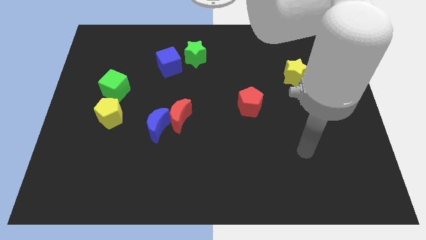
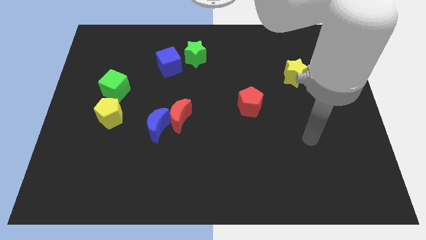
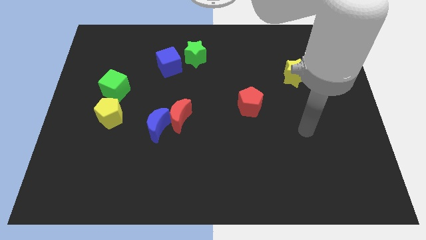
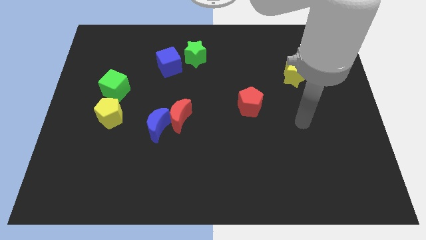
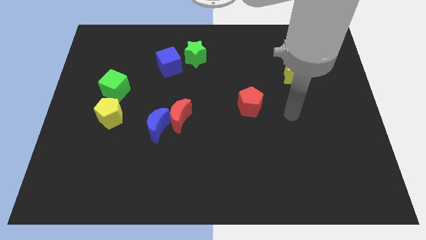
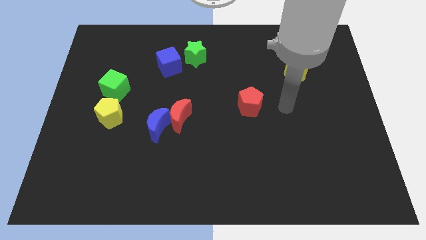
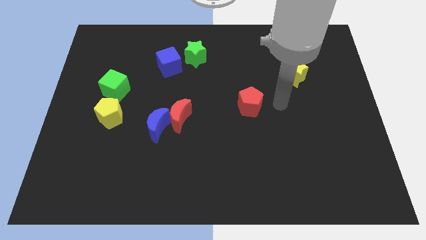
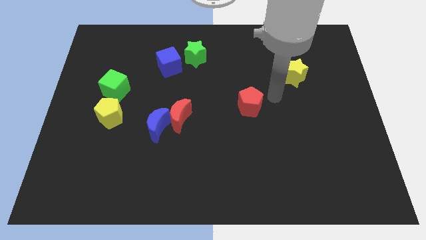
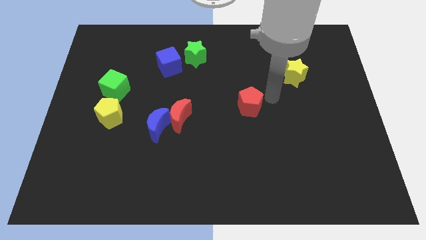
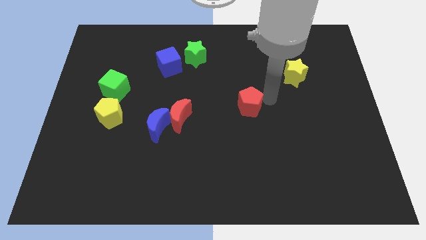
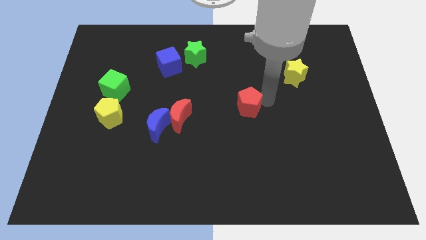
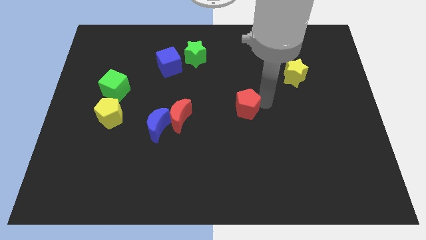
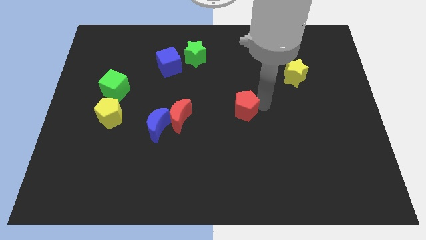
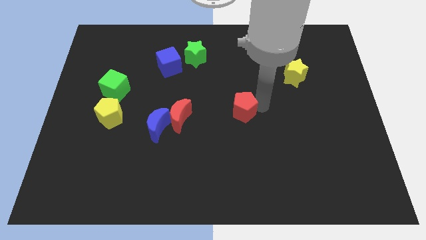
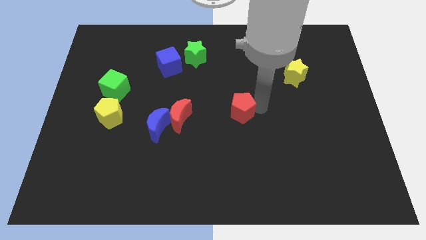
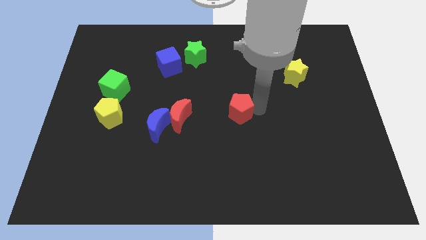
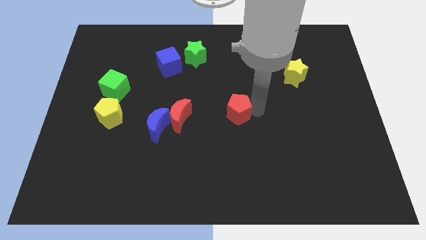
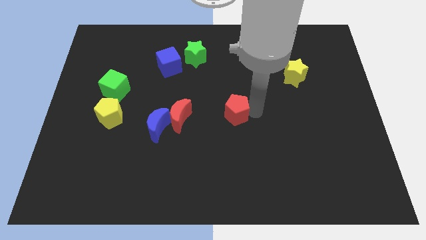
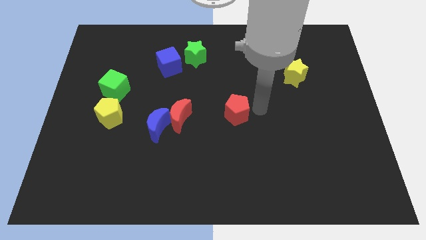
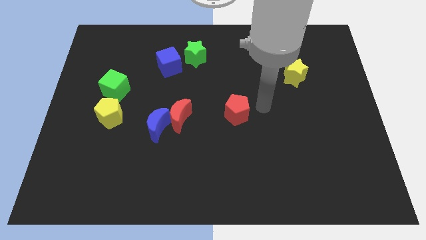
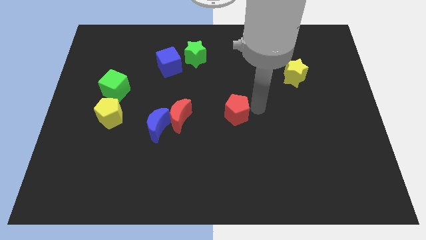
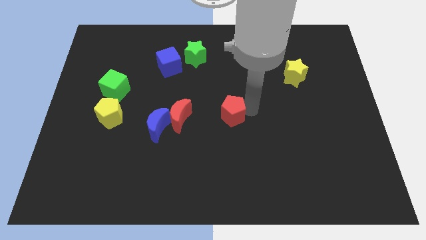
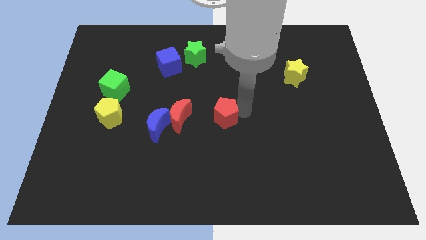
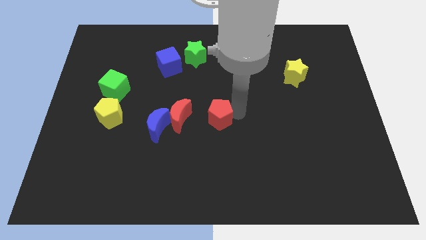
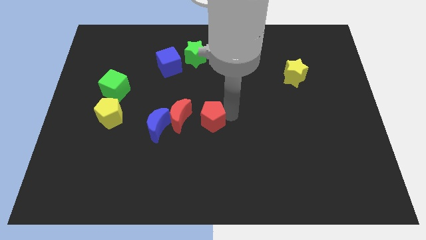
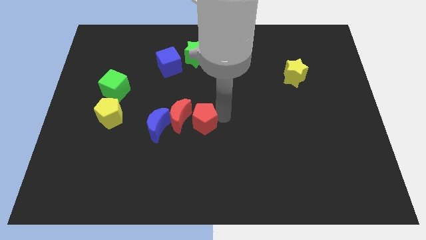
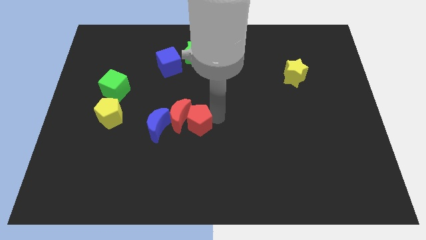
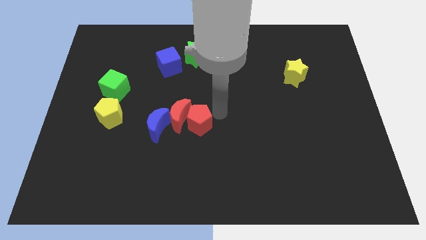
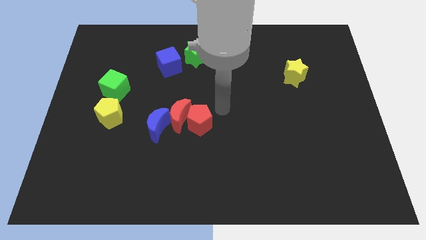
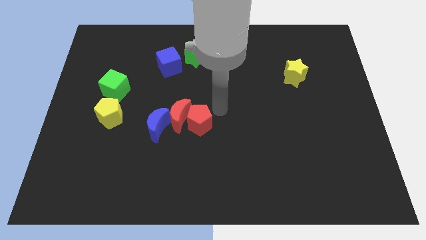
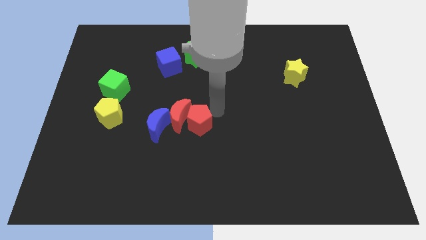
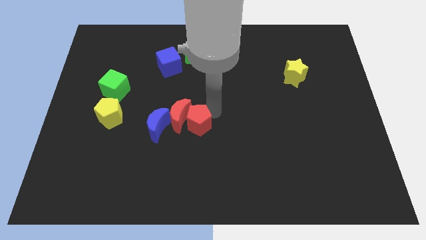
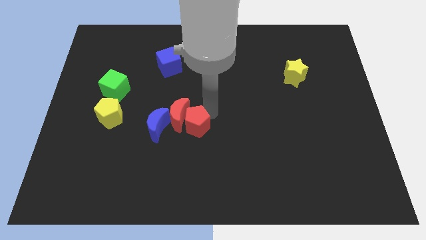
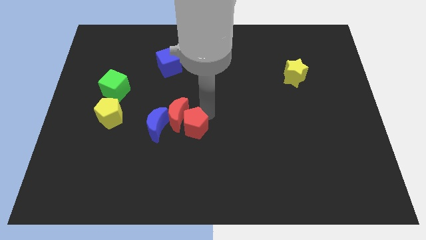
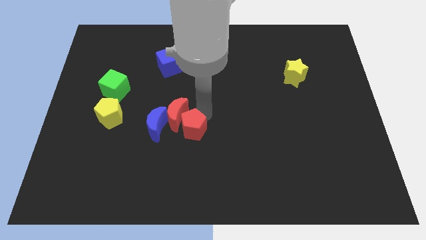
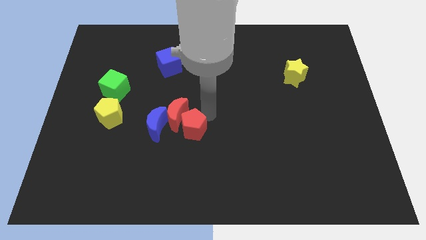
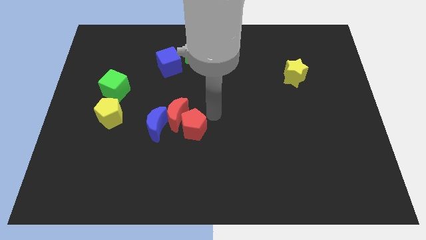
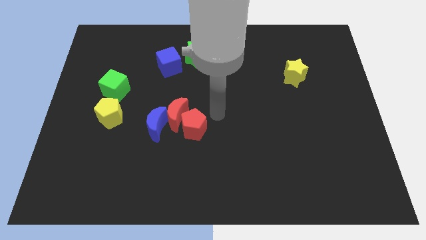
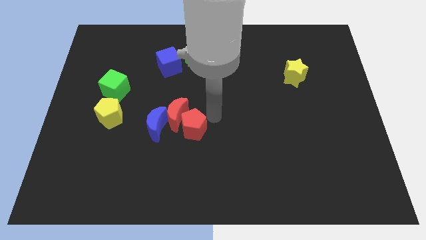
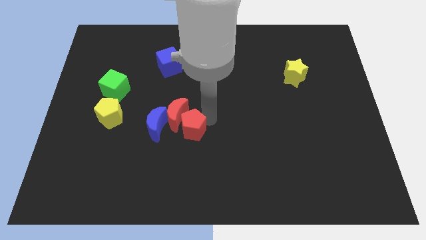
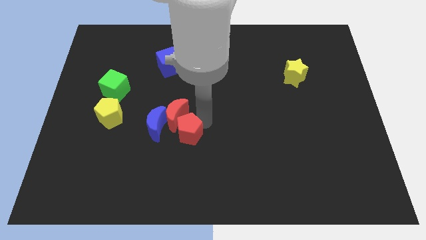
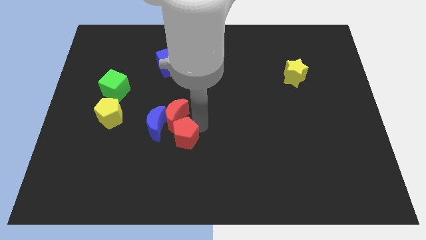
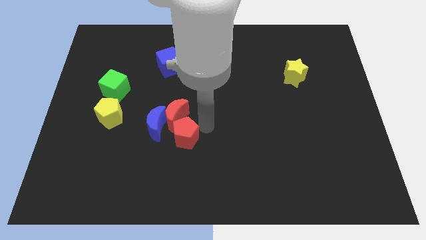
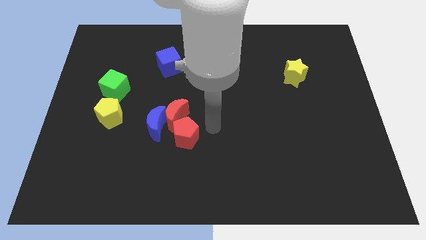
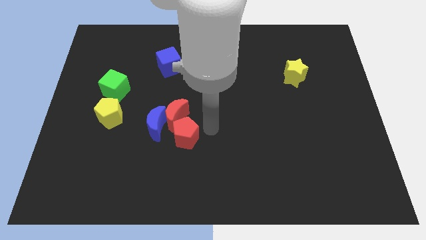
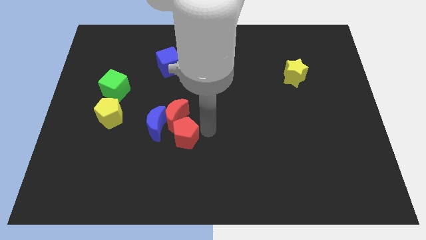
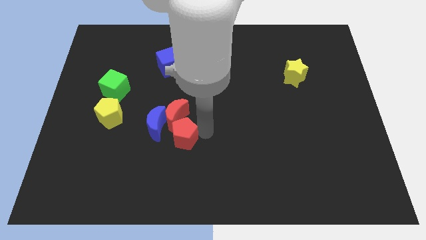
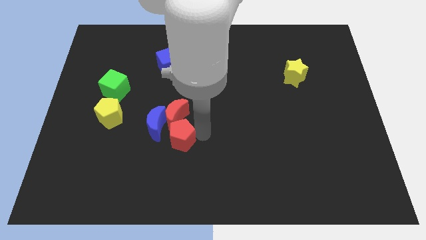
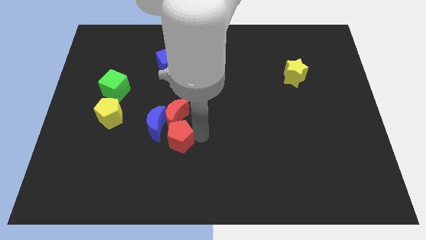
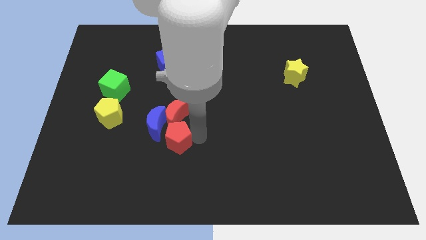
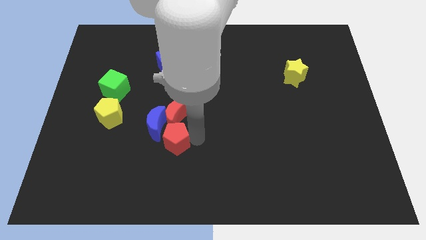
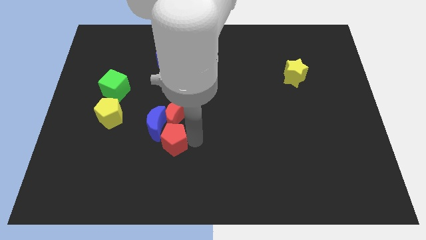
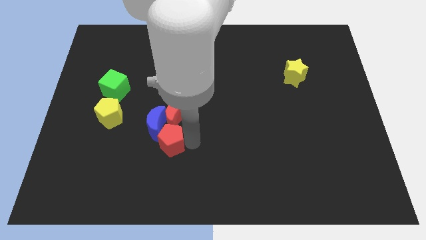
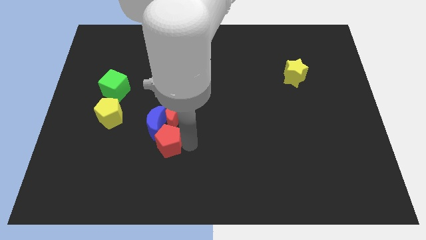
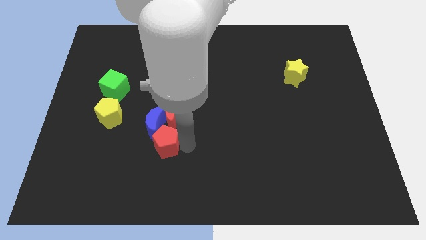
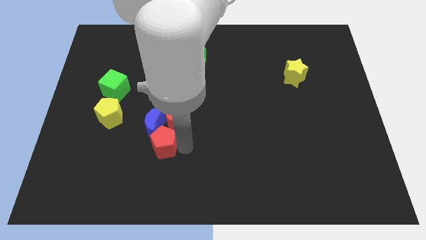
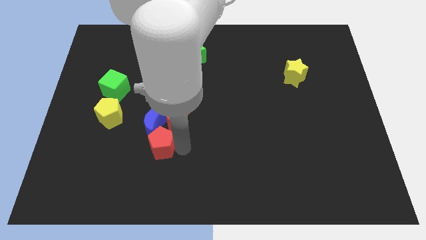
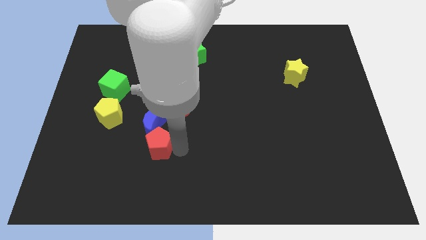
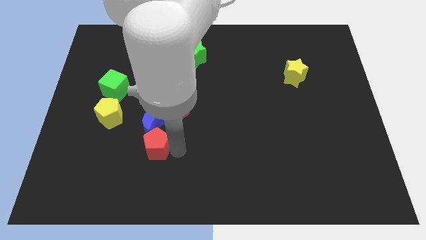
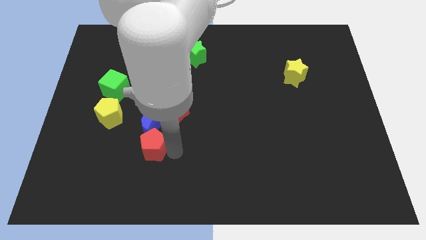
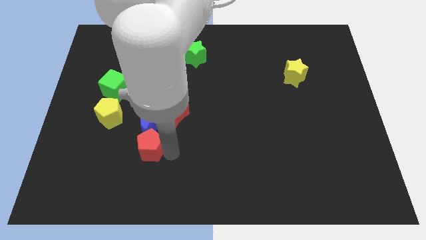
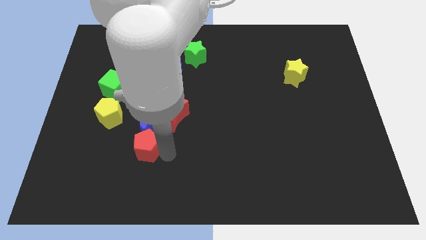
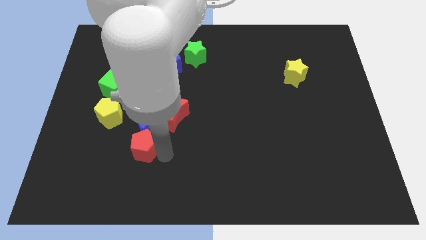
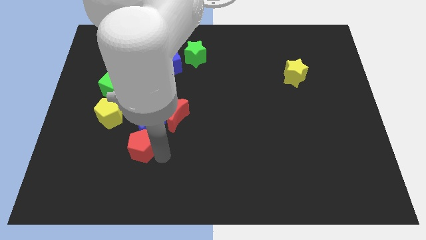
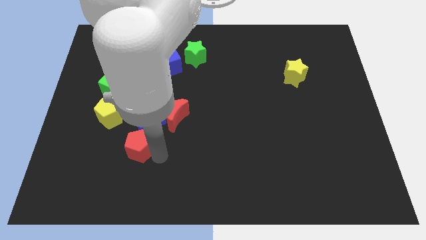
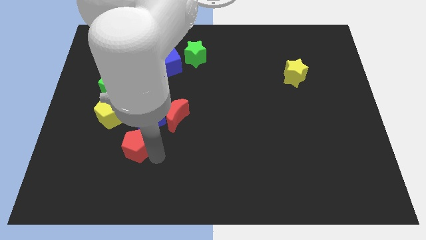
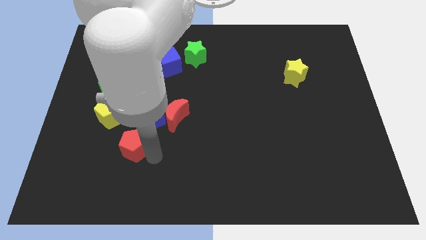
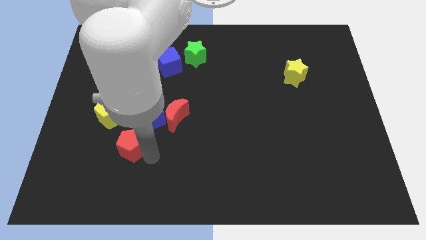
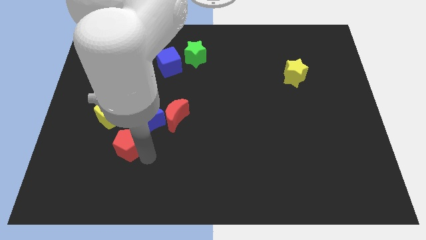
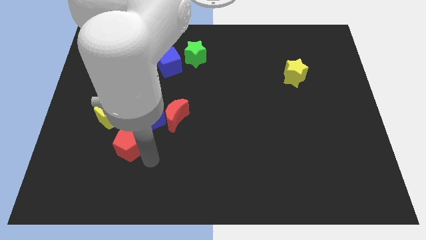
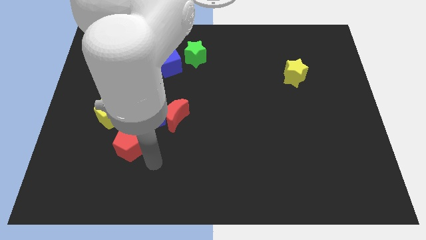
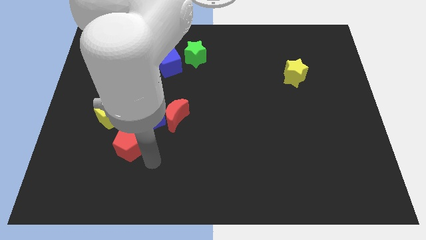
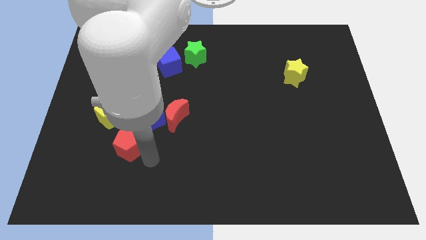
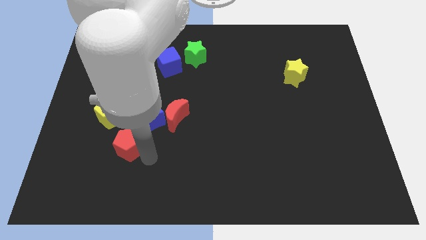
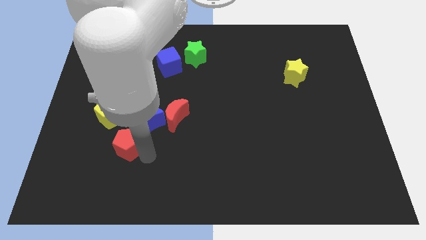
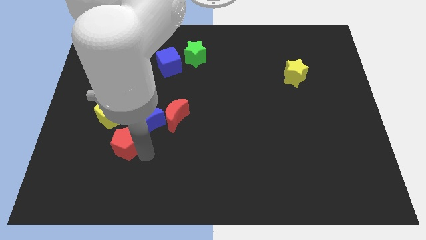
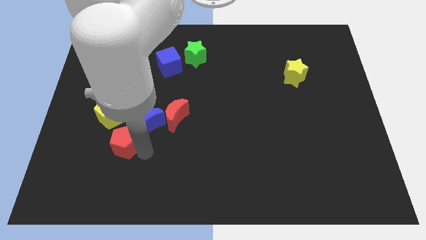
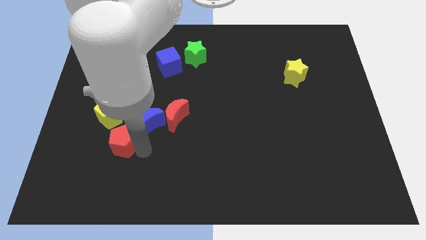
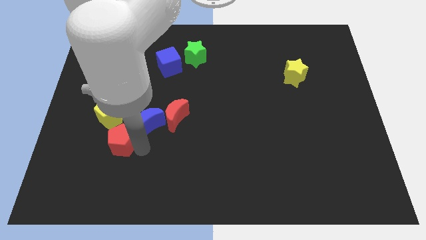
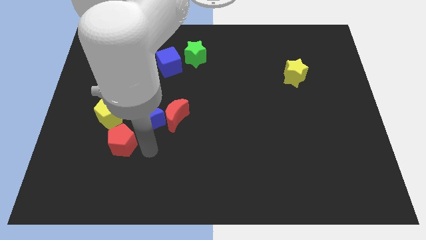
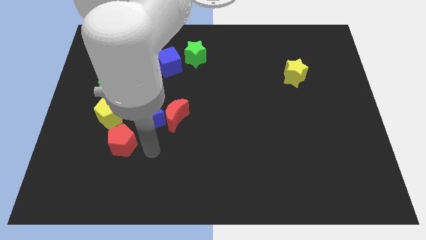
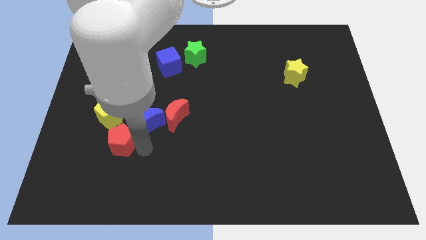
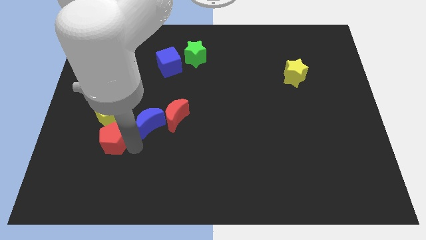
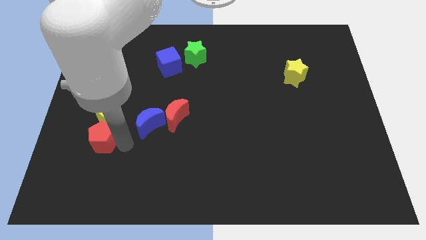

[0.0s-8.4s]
put the red pentagon to the bottom left of the yellow pentagon
